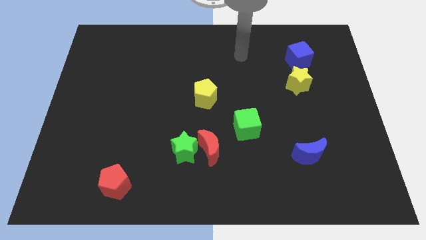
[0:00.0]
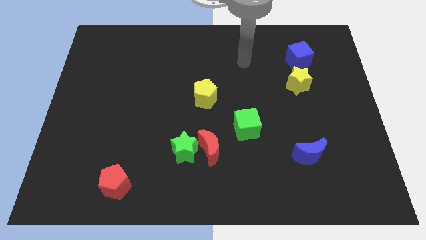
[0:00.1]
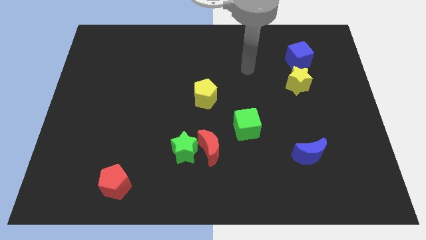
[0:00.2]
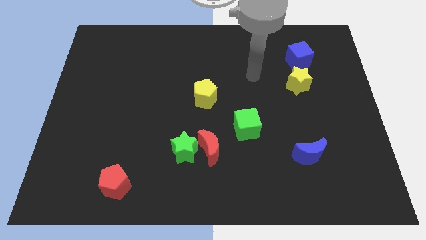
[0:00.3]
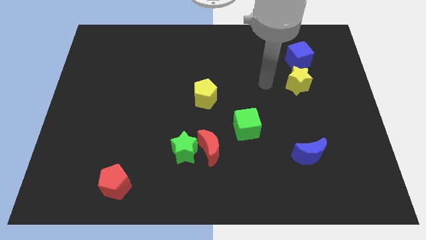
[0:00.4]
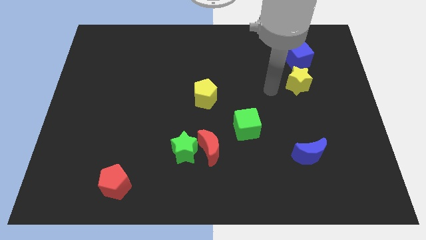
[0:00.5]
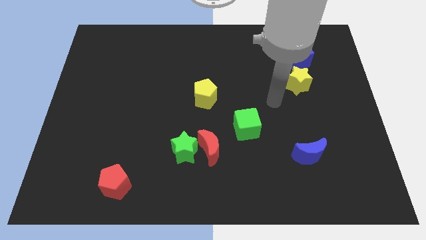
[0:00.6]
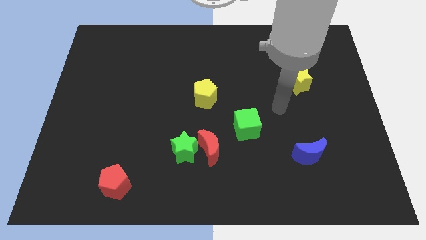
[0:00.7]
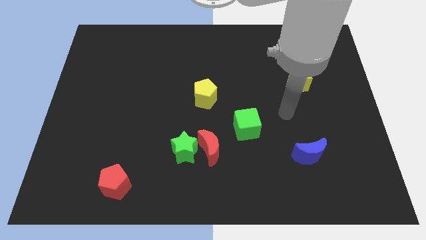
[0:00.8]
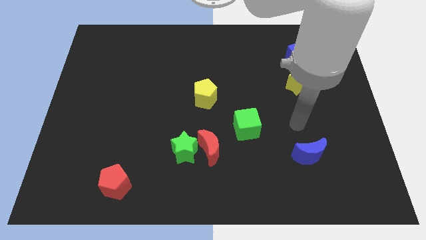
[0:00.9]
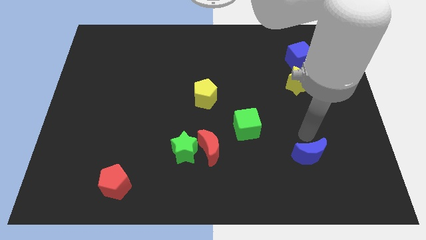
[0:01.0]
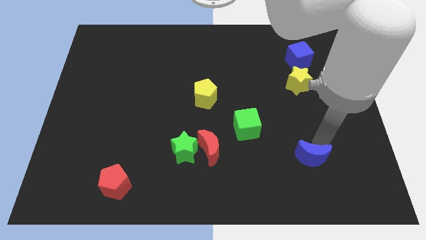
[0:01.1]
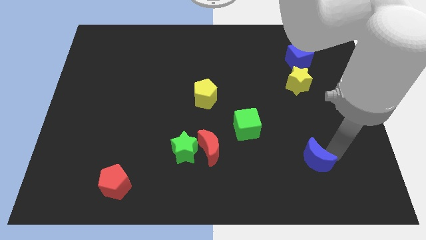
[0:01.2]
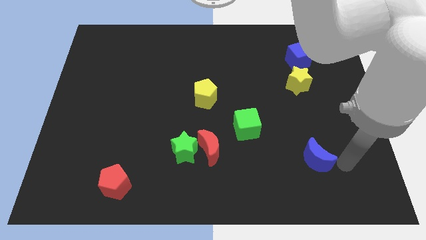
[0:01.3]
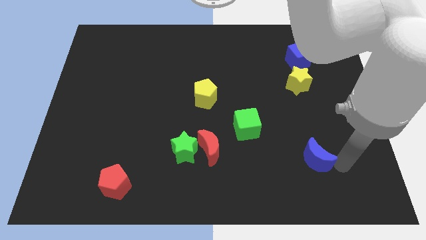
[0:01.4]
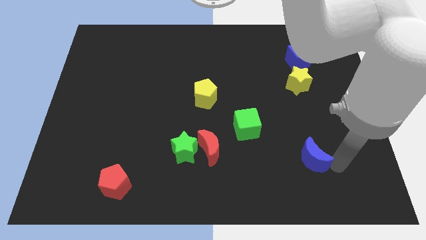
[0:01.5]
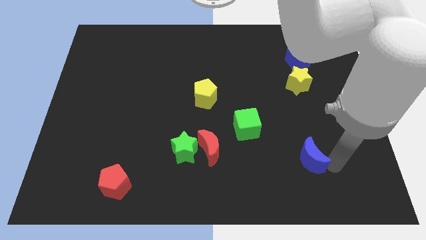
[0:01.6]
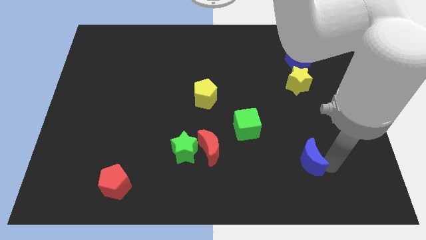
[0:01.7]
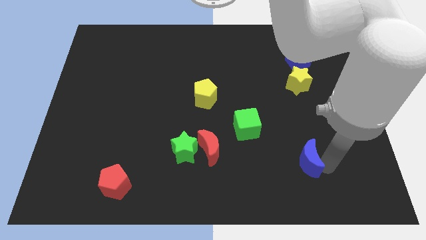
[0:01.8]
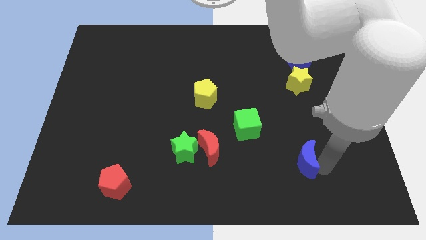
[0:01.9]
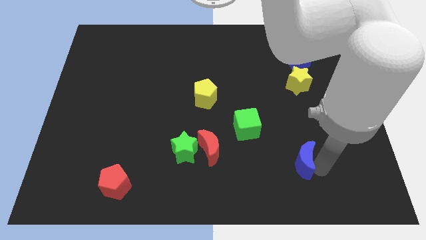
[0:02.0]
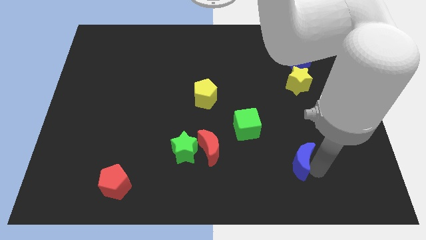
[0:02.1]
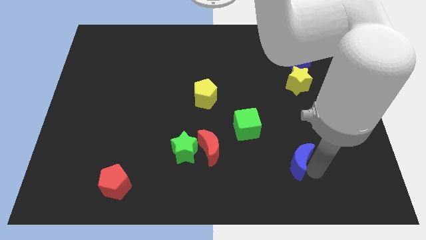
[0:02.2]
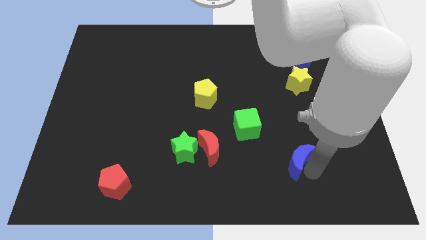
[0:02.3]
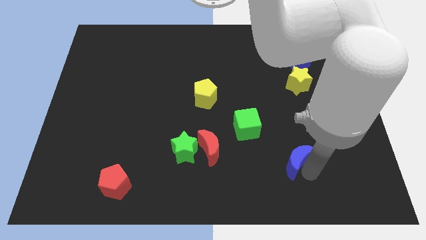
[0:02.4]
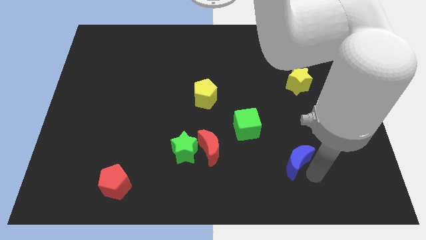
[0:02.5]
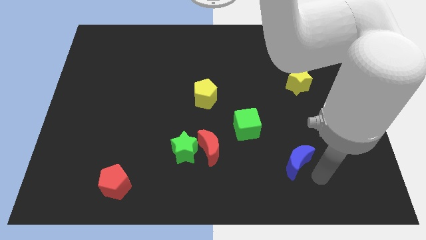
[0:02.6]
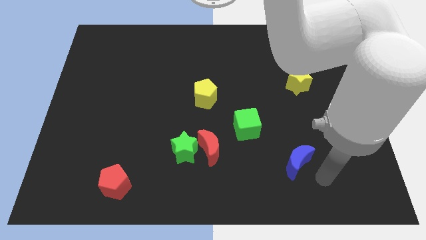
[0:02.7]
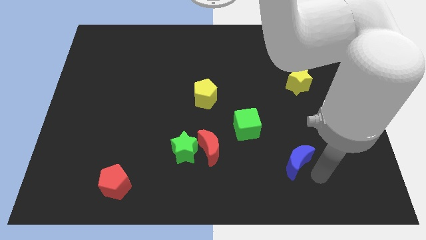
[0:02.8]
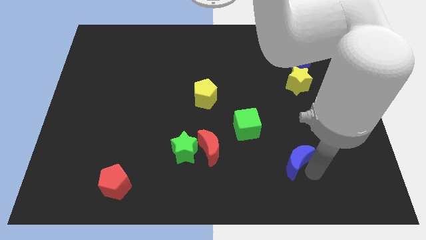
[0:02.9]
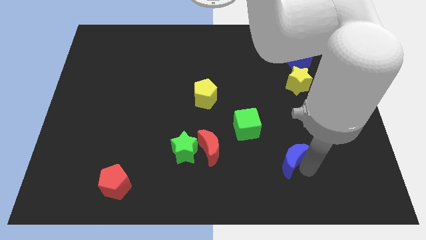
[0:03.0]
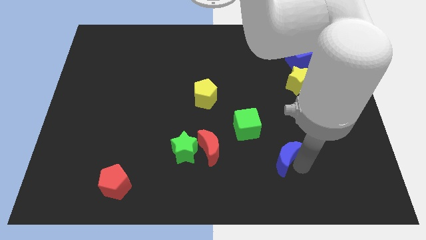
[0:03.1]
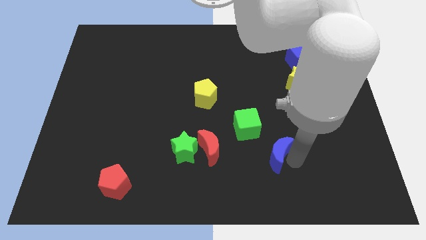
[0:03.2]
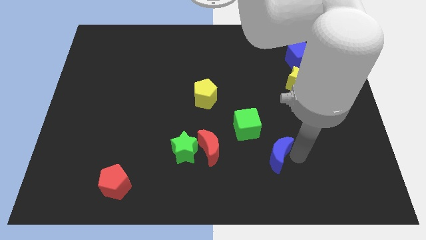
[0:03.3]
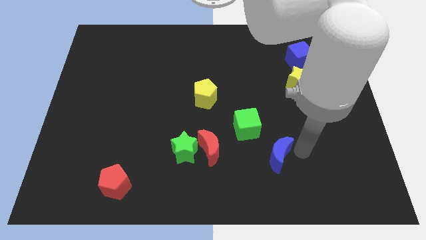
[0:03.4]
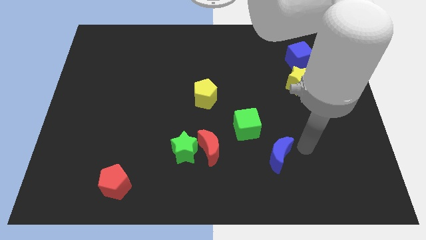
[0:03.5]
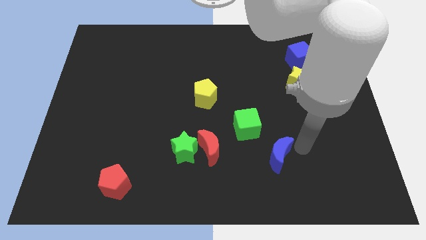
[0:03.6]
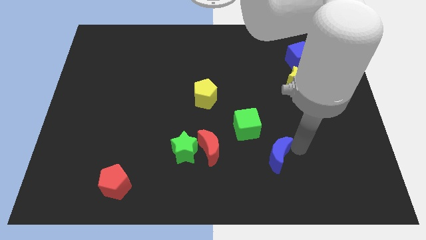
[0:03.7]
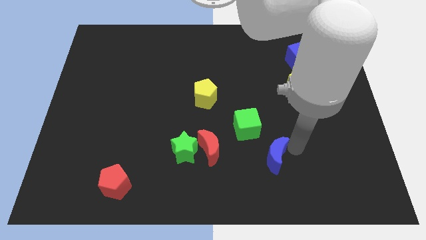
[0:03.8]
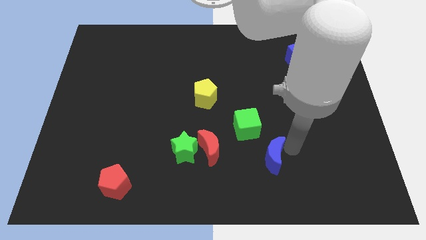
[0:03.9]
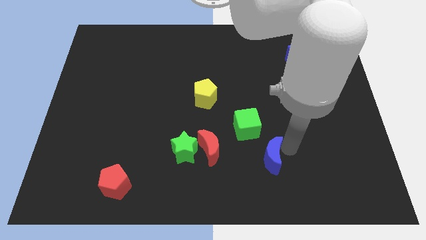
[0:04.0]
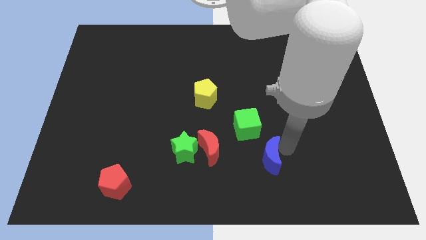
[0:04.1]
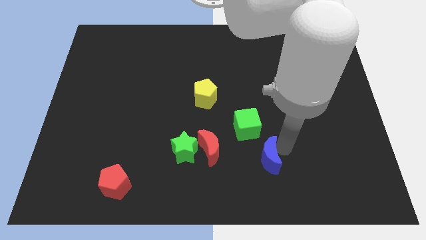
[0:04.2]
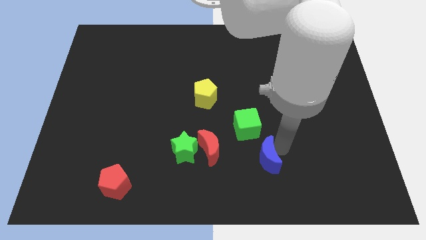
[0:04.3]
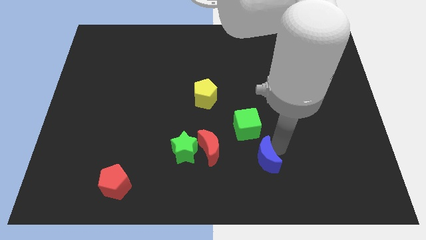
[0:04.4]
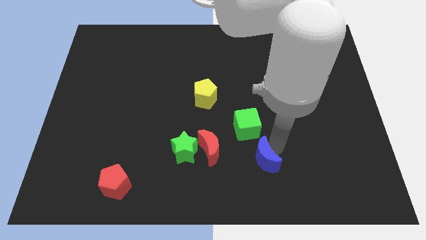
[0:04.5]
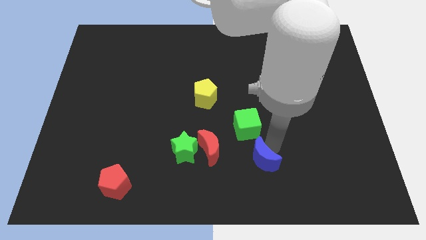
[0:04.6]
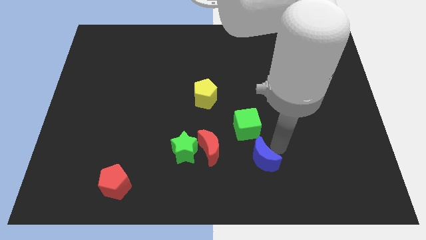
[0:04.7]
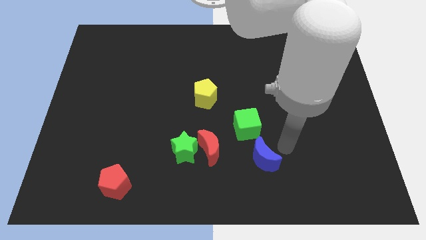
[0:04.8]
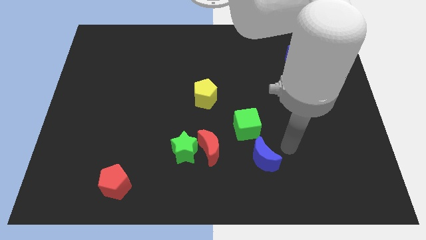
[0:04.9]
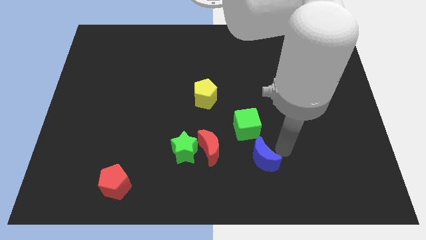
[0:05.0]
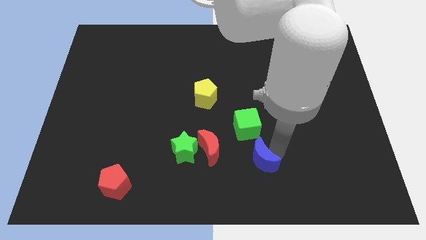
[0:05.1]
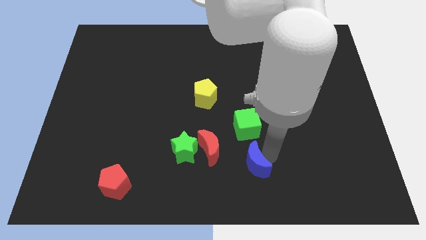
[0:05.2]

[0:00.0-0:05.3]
slide the blue moon to the bottom right side of the red moon
